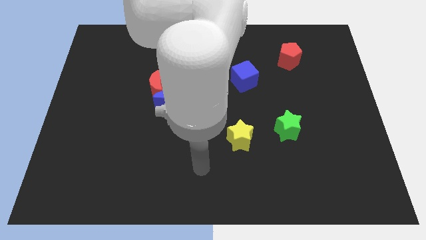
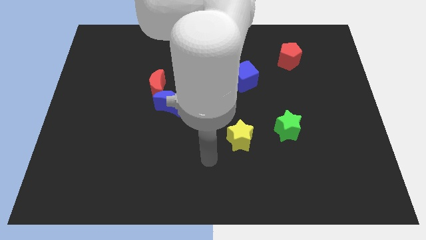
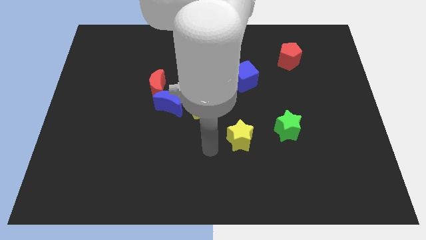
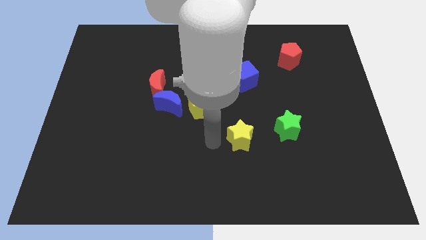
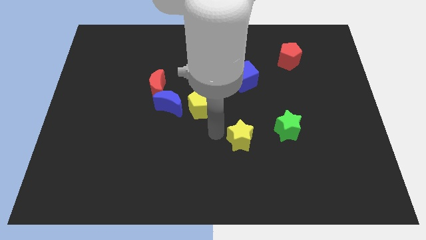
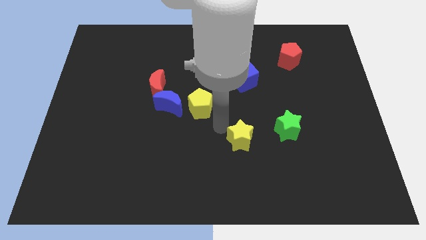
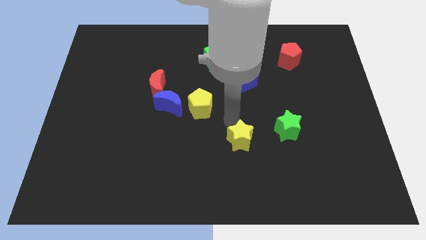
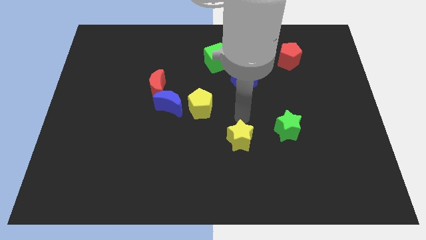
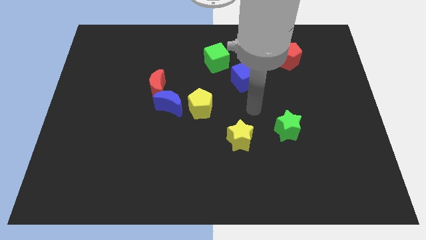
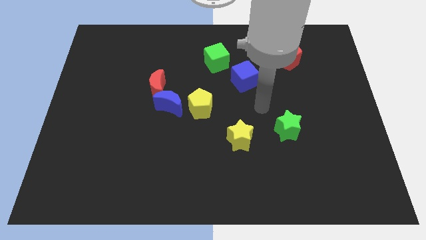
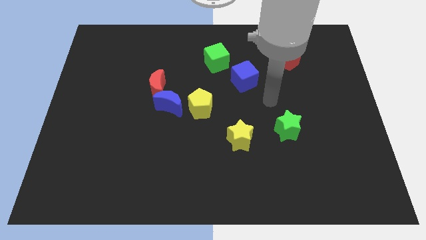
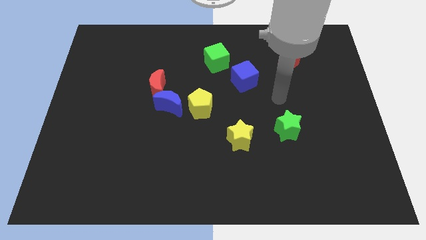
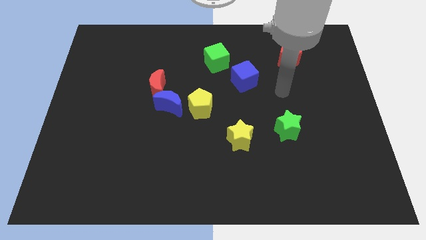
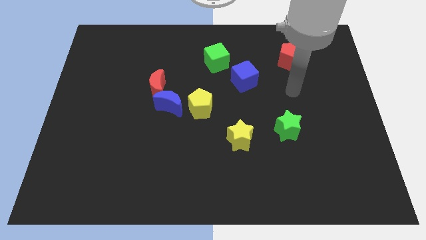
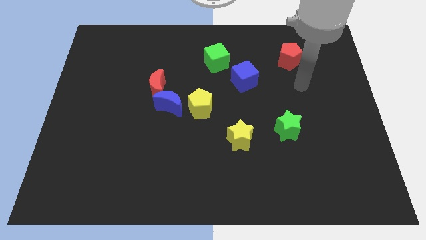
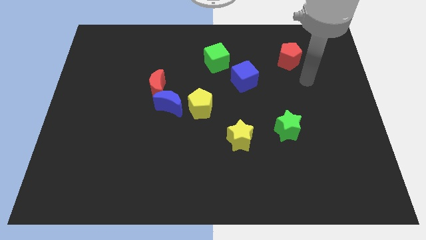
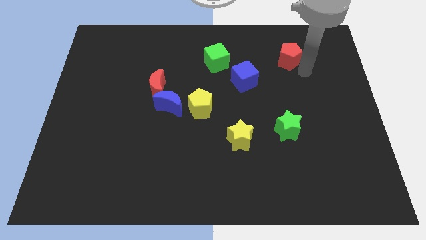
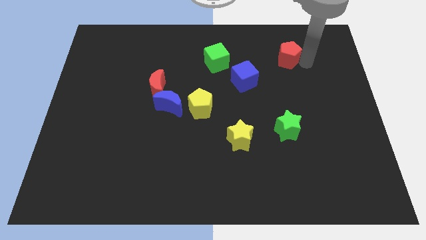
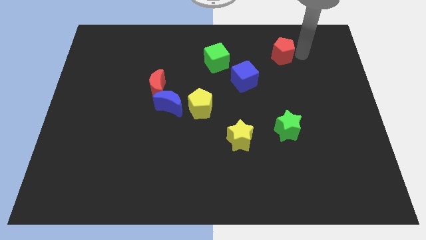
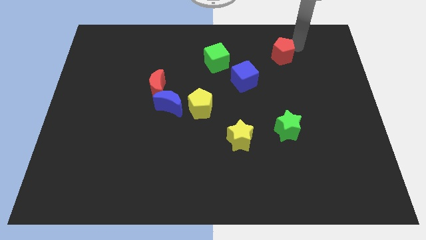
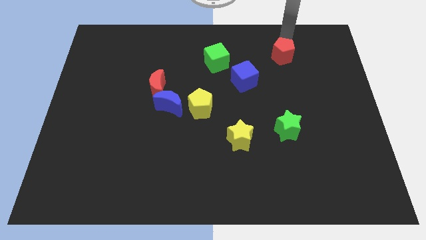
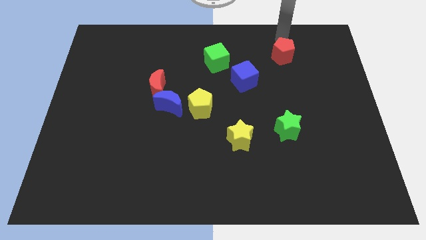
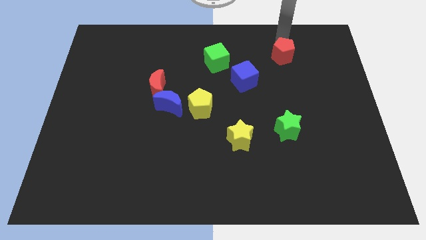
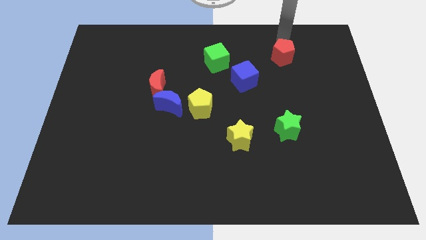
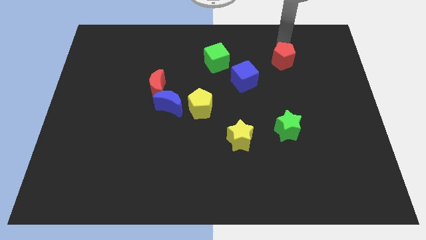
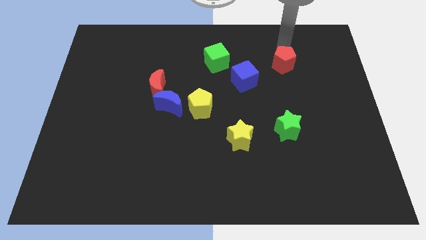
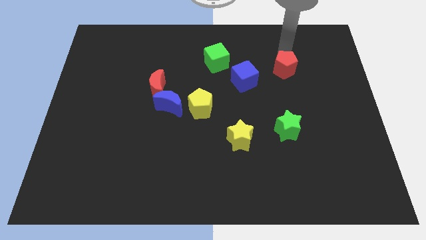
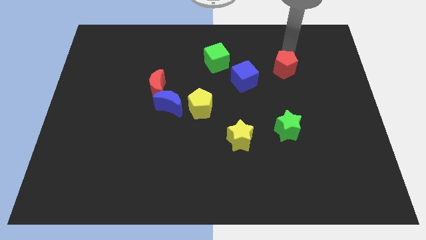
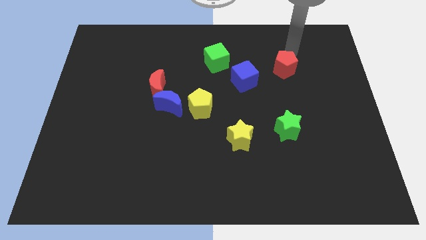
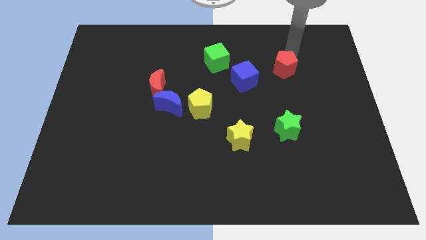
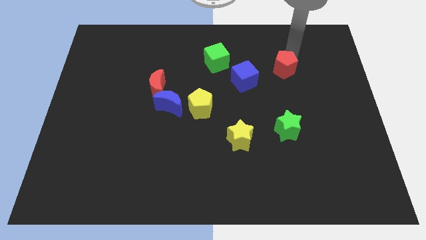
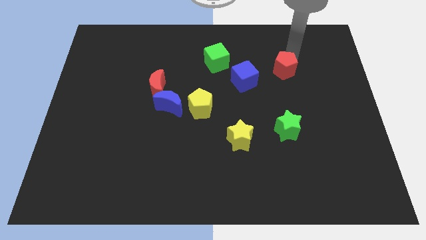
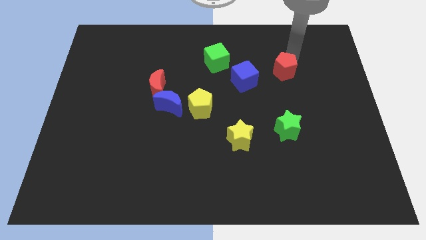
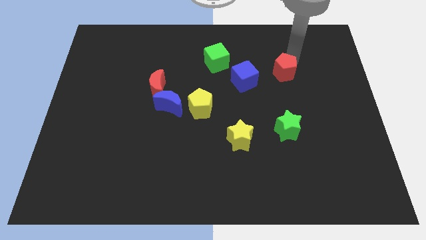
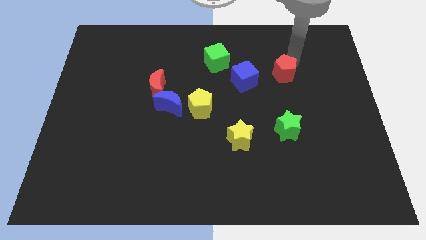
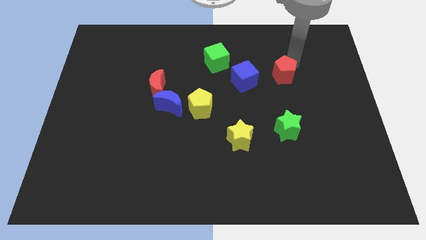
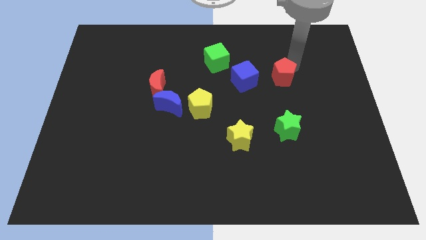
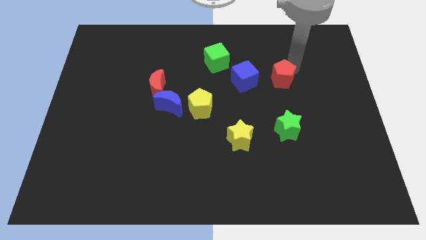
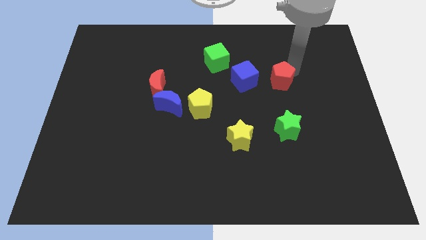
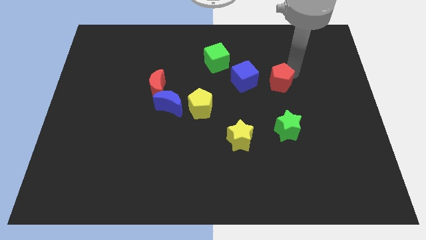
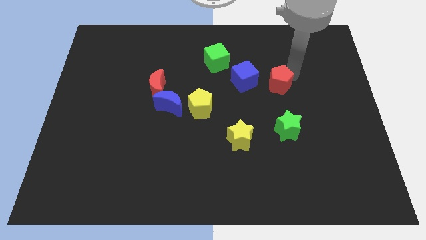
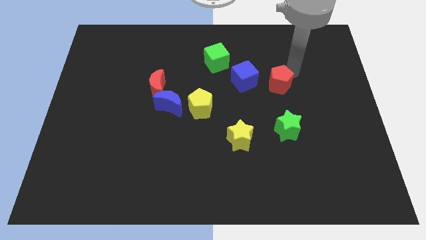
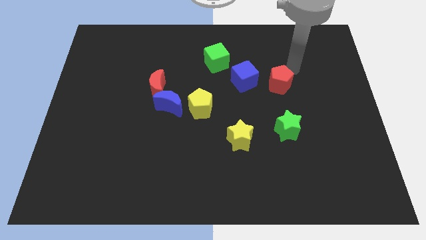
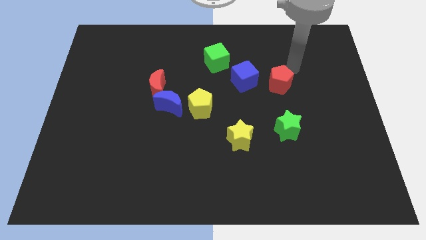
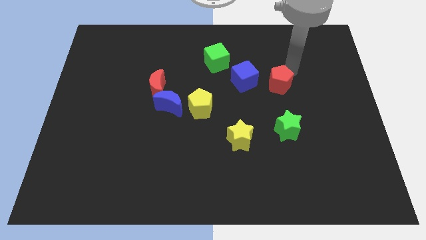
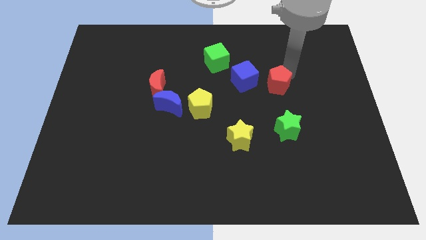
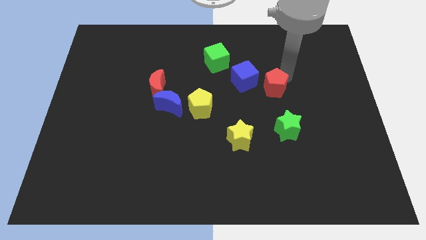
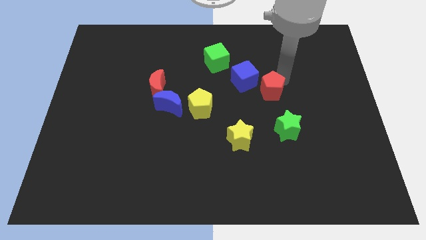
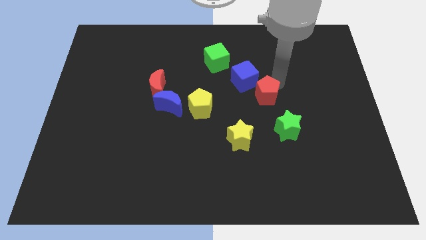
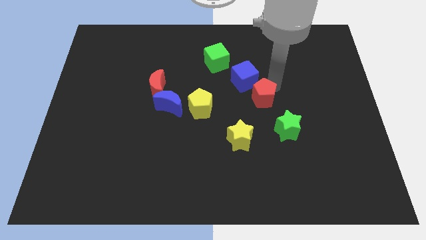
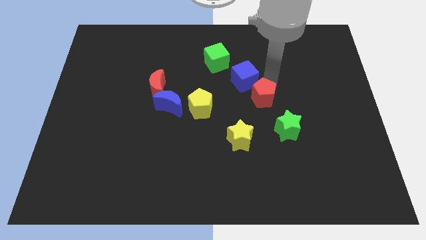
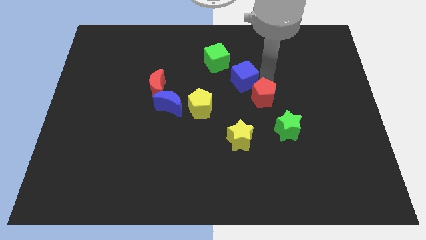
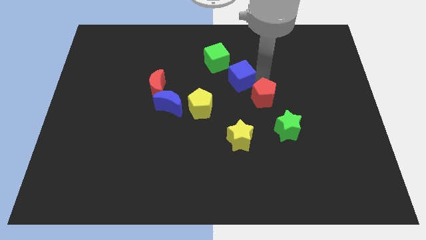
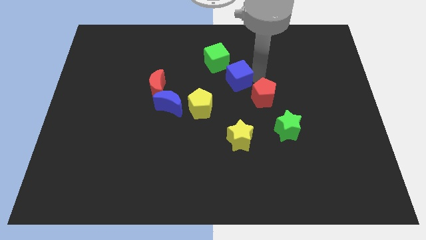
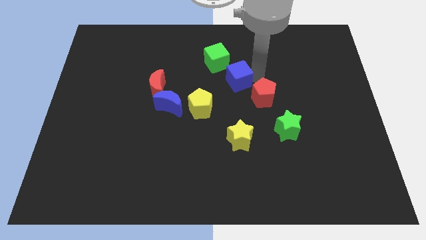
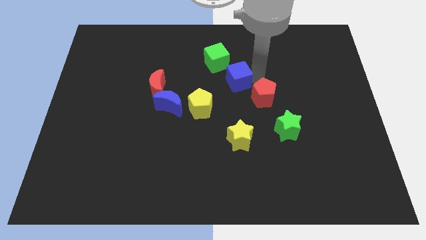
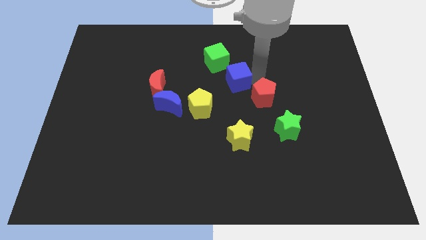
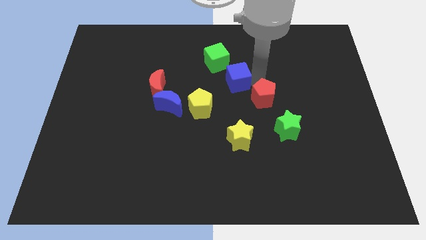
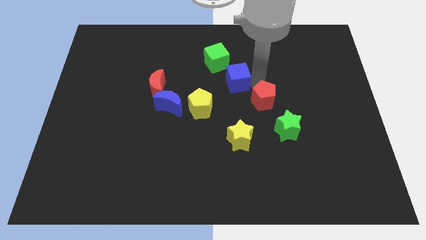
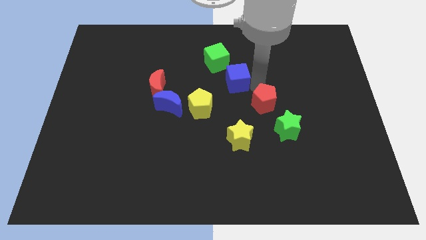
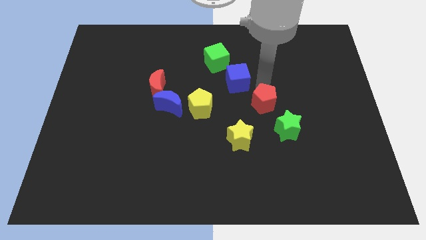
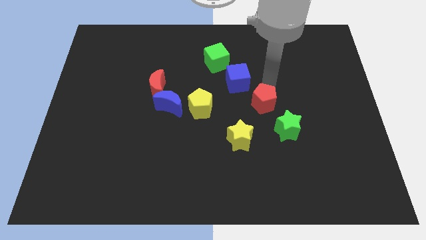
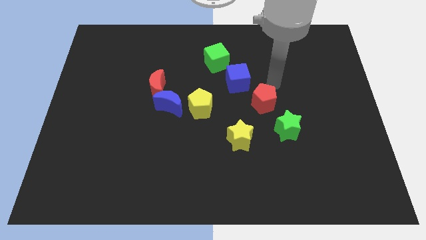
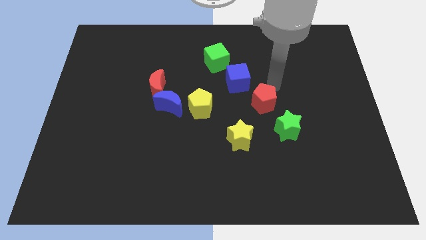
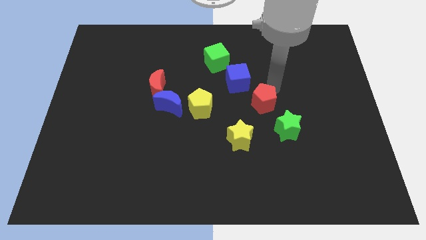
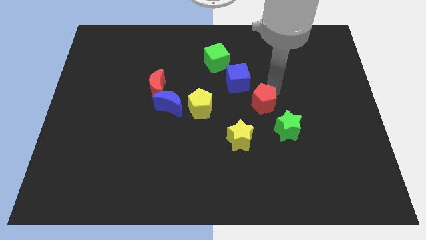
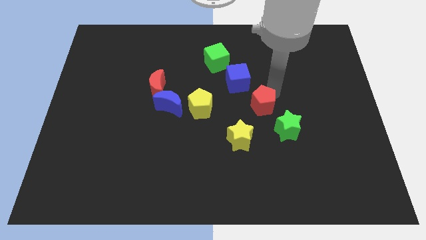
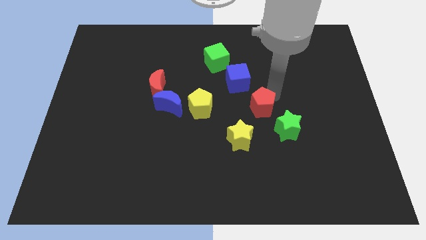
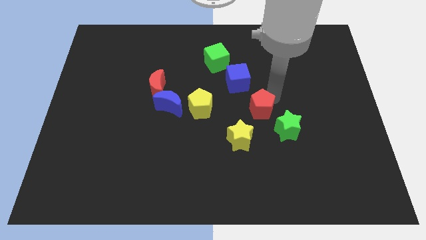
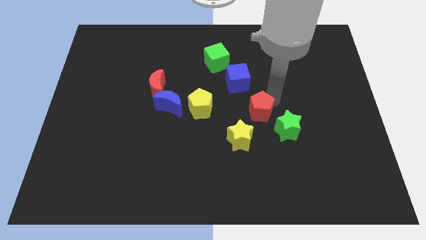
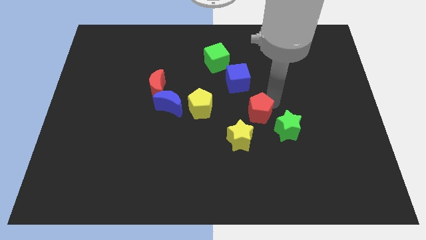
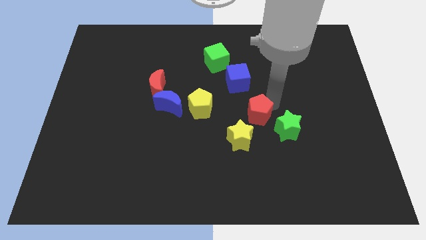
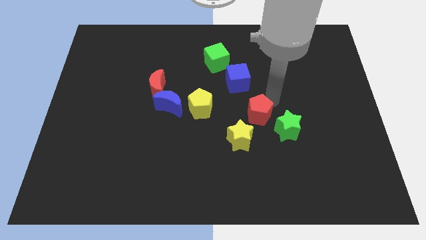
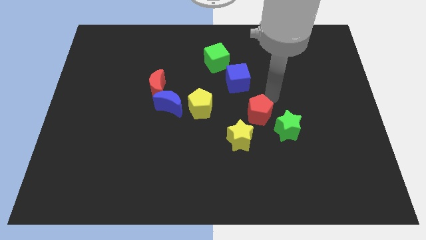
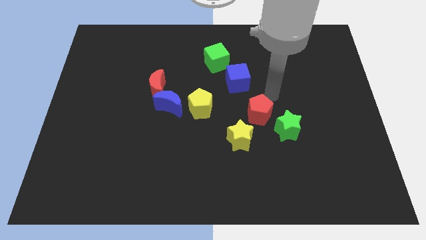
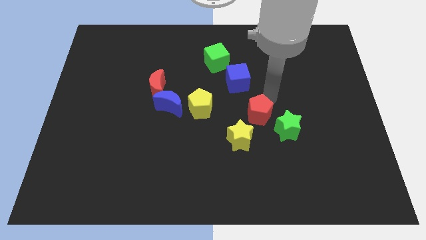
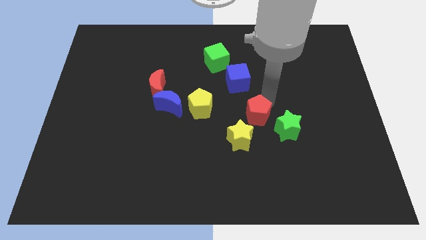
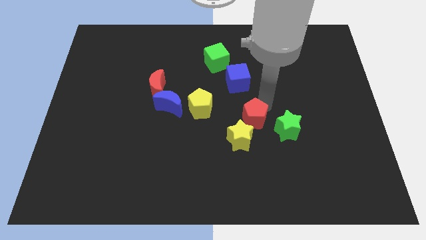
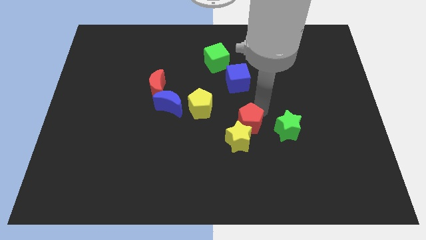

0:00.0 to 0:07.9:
move the red pentagon next to the yellow star
